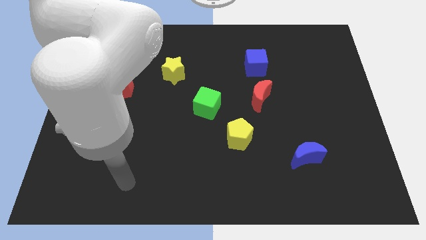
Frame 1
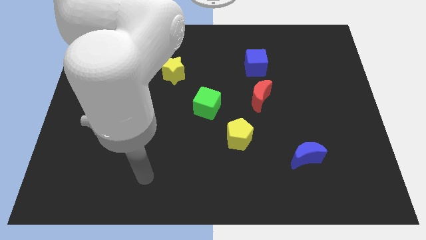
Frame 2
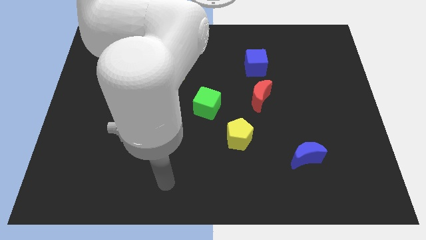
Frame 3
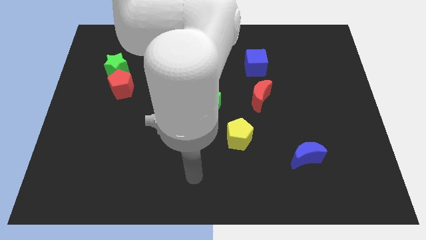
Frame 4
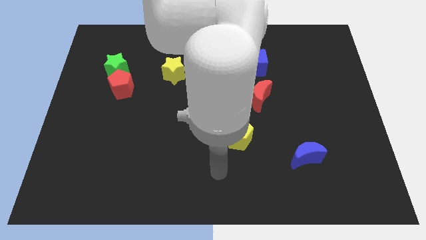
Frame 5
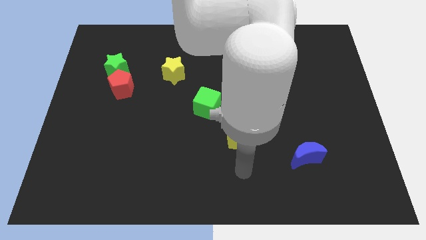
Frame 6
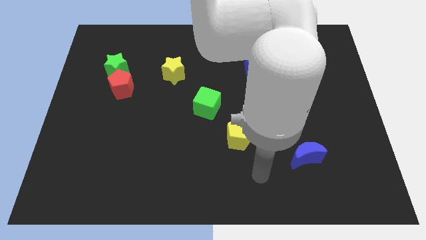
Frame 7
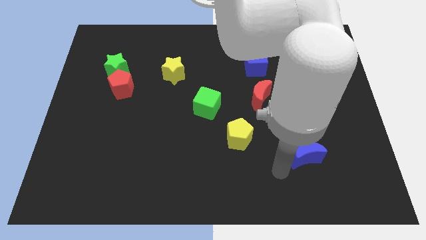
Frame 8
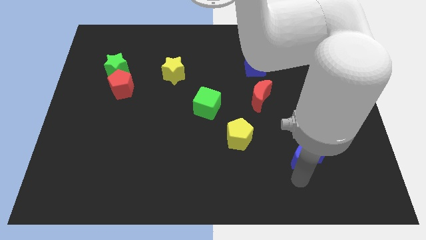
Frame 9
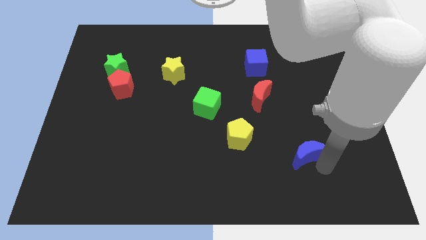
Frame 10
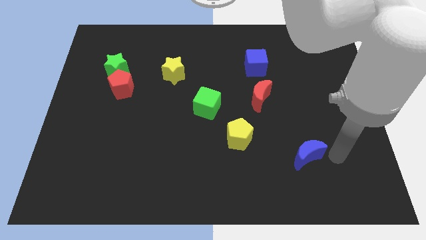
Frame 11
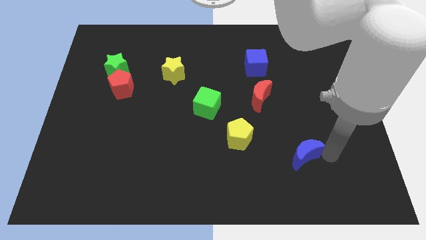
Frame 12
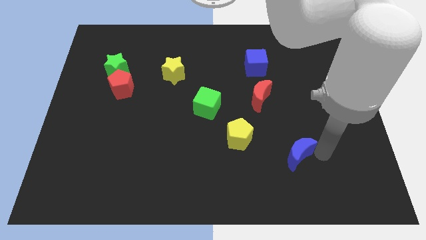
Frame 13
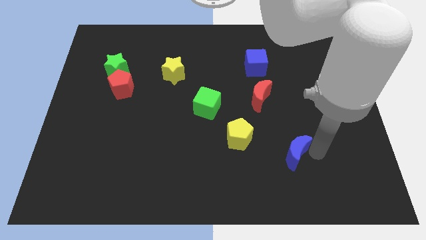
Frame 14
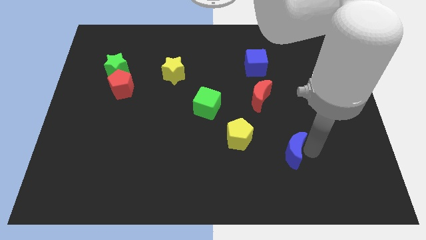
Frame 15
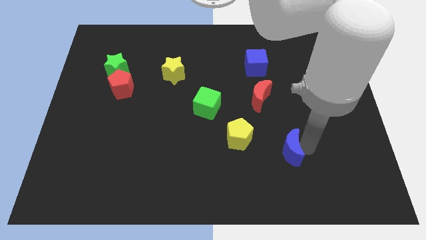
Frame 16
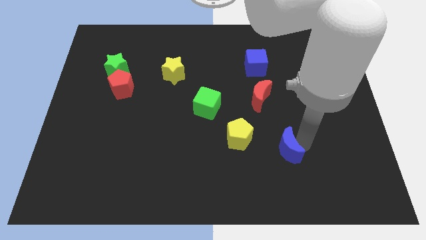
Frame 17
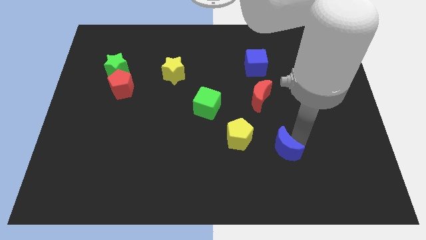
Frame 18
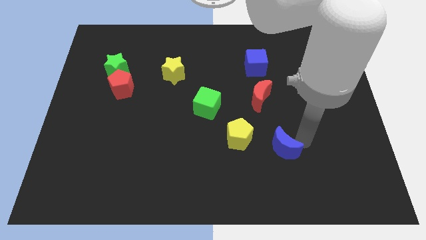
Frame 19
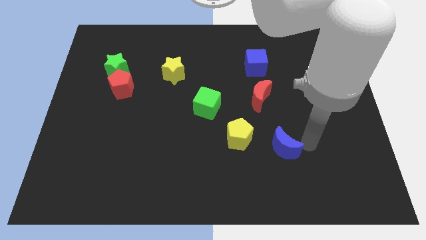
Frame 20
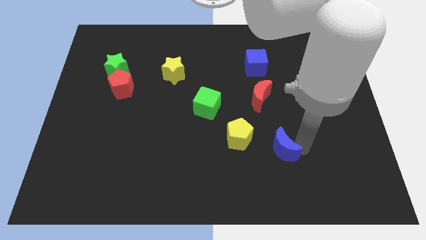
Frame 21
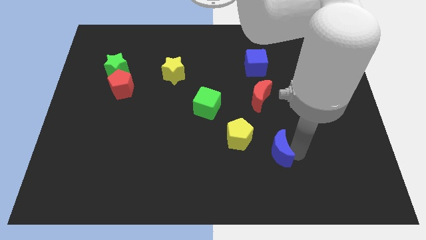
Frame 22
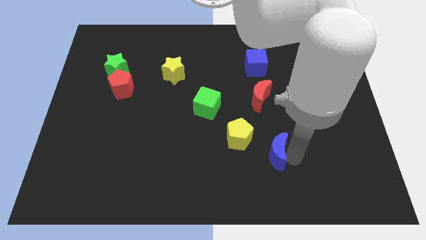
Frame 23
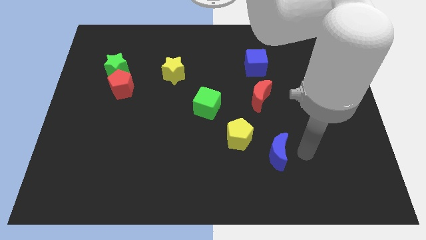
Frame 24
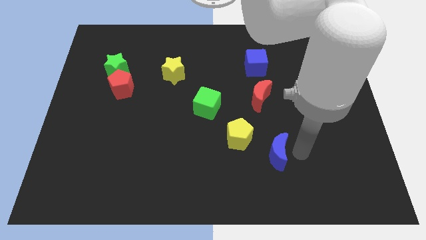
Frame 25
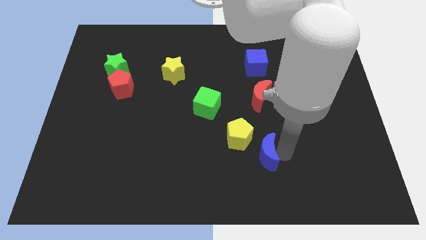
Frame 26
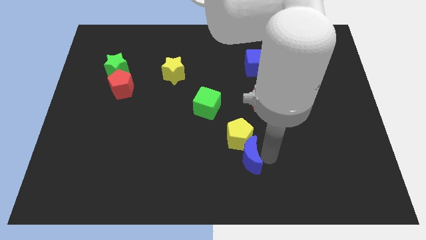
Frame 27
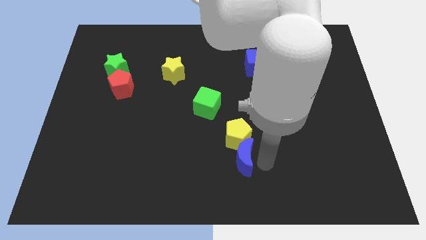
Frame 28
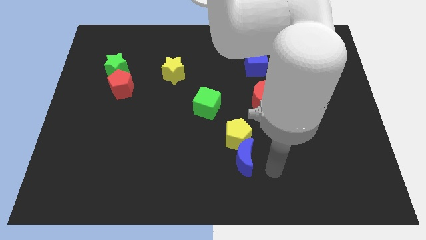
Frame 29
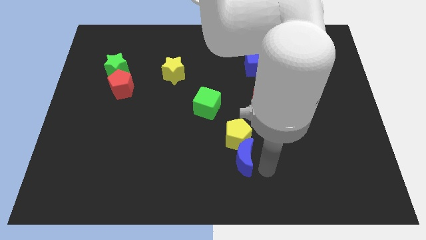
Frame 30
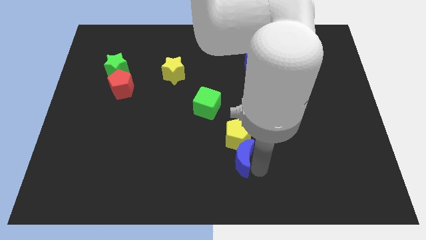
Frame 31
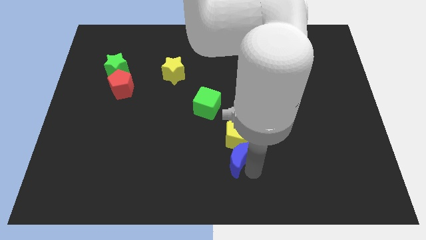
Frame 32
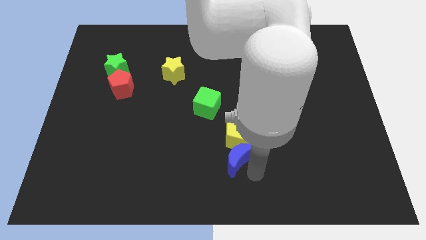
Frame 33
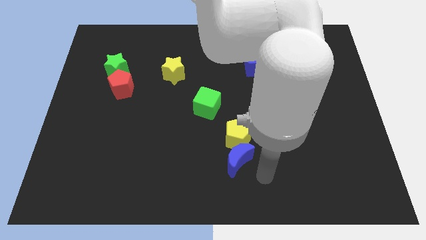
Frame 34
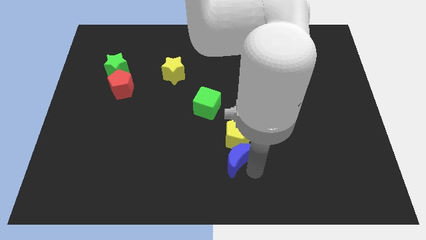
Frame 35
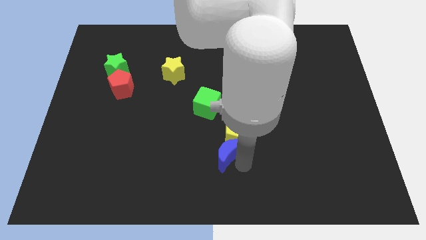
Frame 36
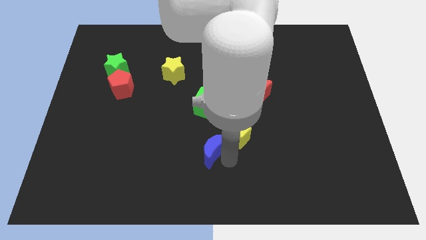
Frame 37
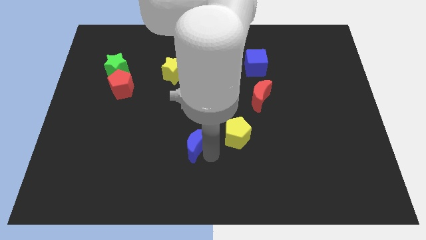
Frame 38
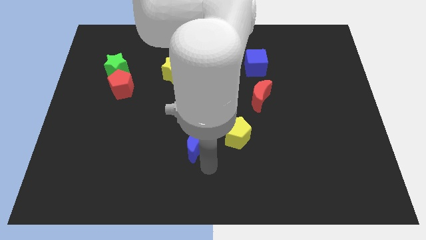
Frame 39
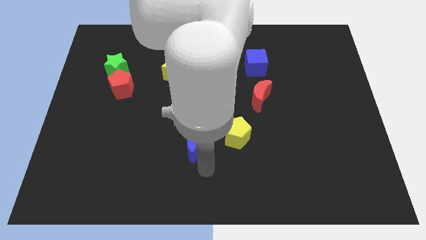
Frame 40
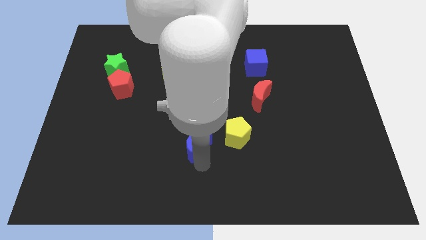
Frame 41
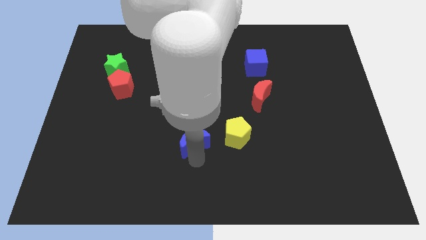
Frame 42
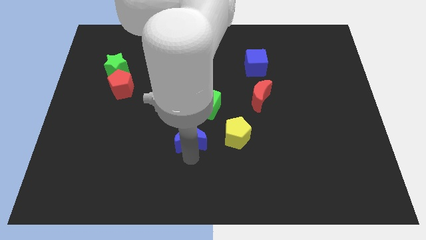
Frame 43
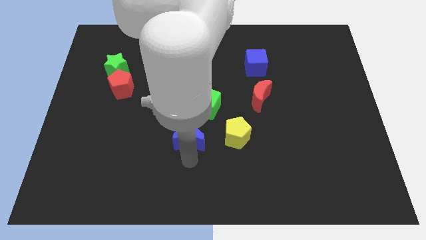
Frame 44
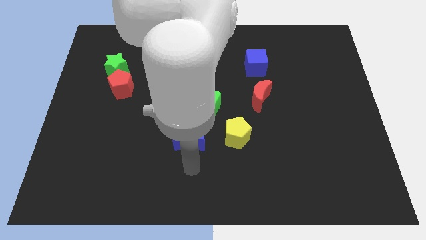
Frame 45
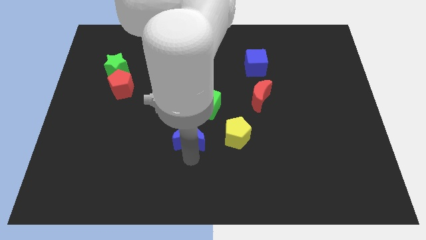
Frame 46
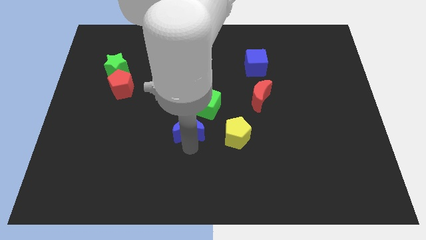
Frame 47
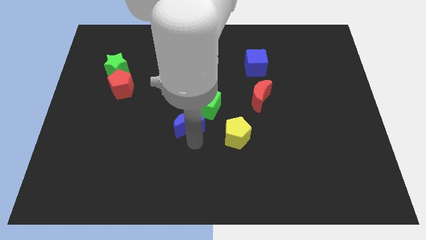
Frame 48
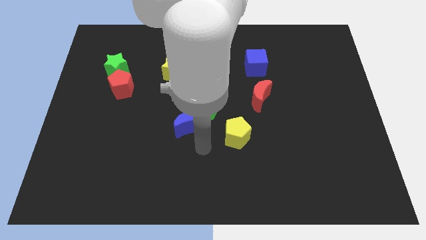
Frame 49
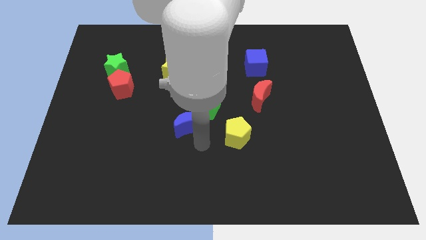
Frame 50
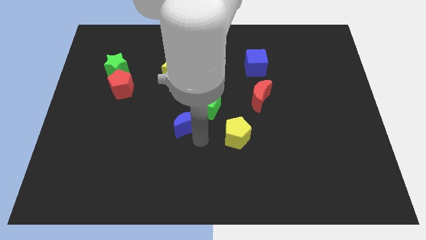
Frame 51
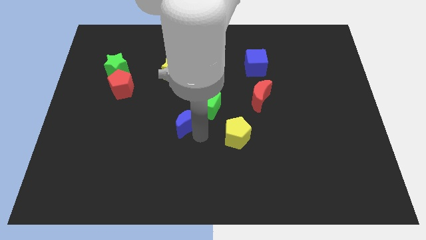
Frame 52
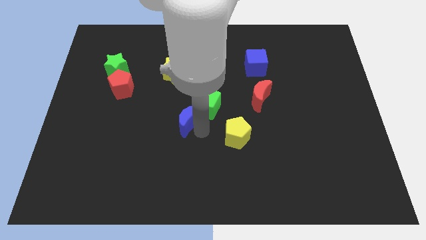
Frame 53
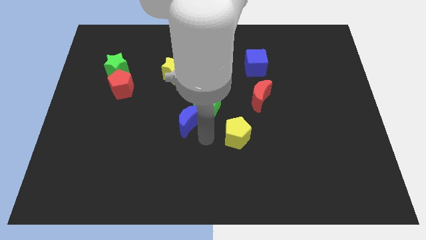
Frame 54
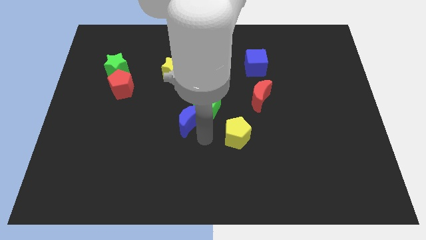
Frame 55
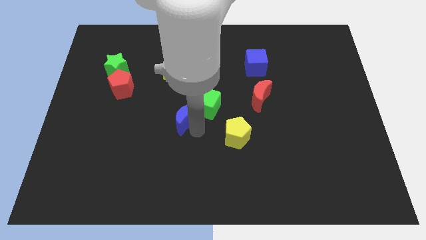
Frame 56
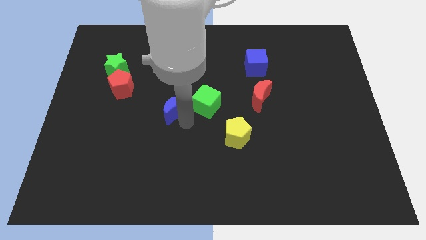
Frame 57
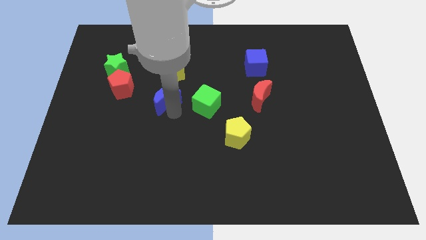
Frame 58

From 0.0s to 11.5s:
push the blue moon right of the red pentagon

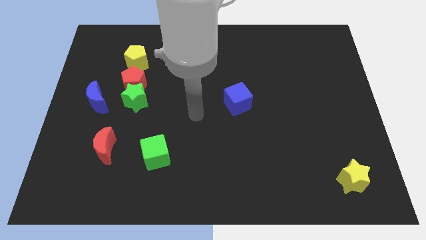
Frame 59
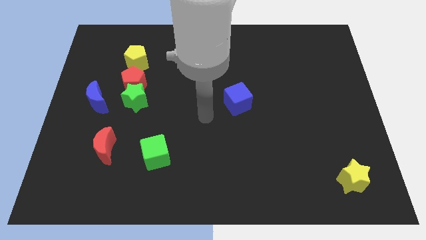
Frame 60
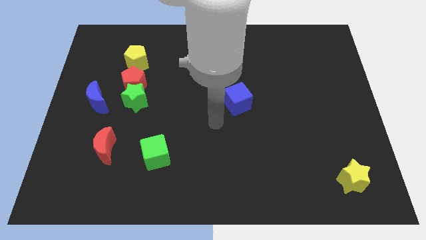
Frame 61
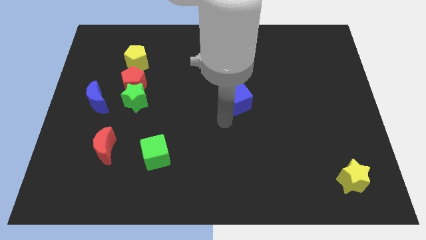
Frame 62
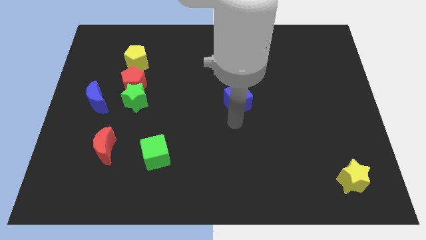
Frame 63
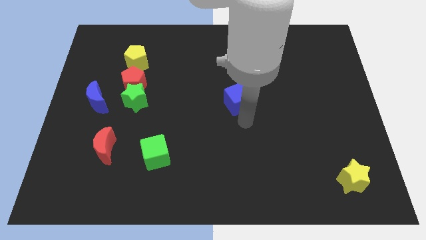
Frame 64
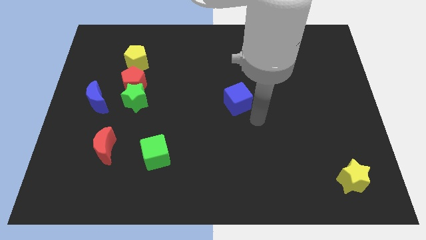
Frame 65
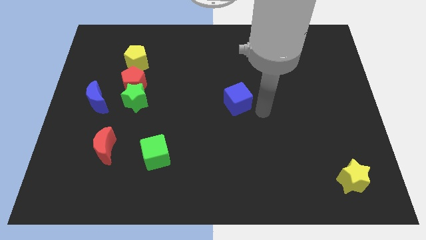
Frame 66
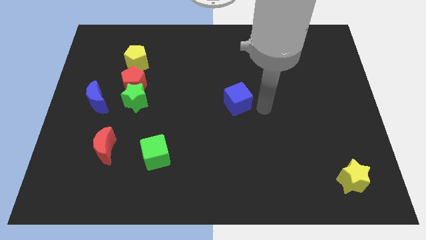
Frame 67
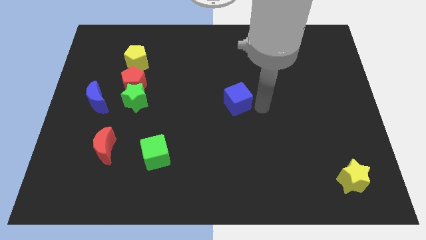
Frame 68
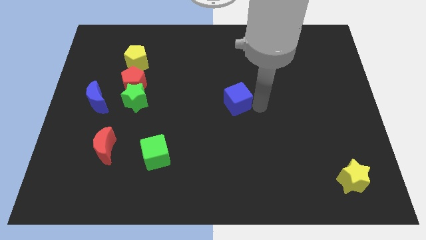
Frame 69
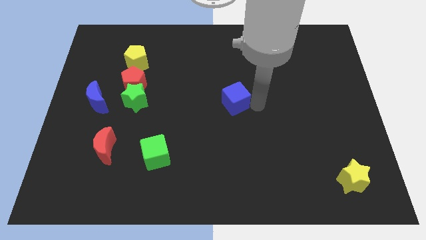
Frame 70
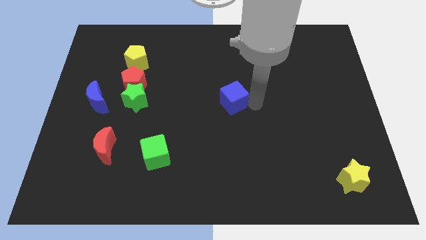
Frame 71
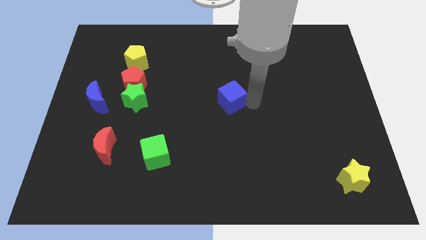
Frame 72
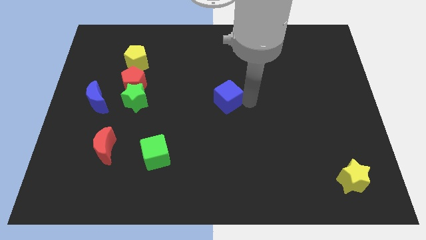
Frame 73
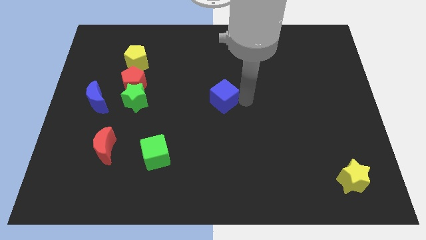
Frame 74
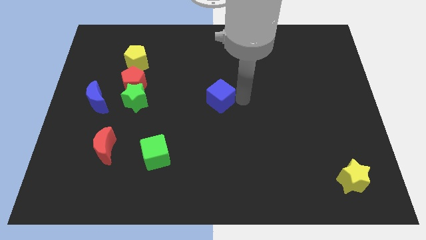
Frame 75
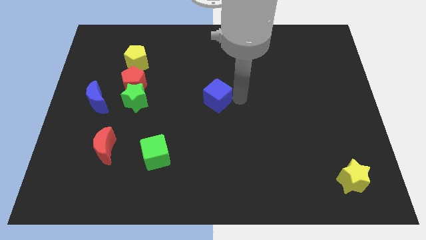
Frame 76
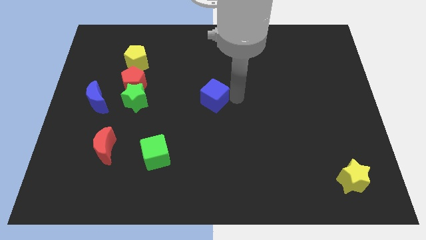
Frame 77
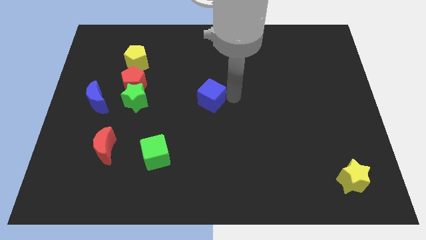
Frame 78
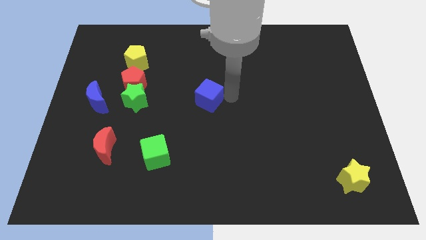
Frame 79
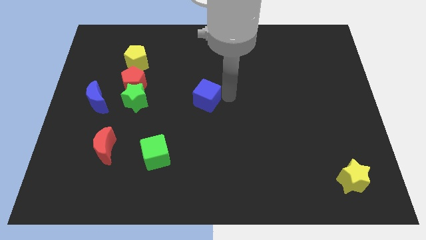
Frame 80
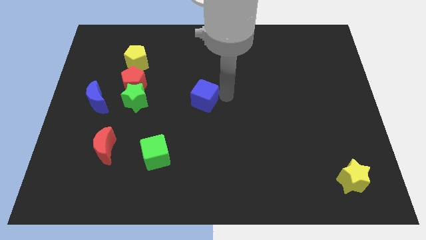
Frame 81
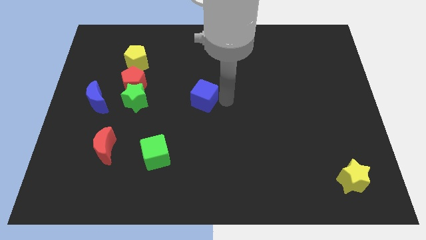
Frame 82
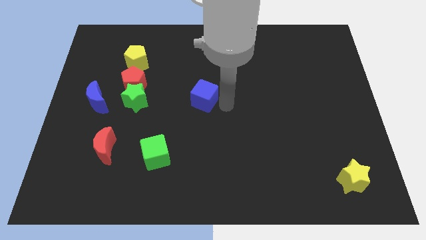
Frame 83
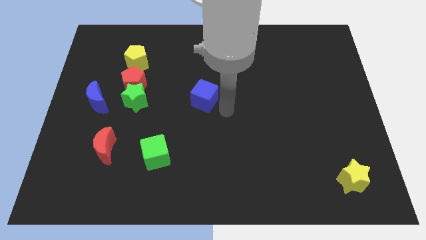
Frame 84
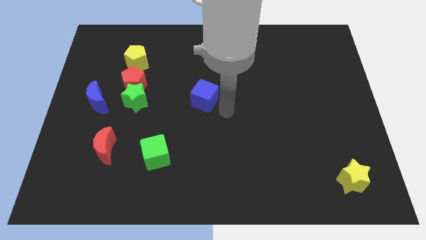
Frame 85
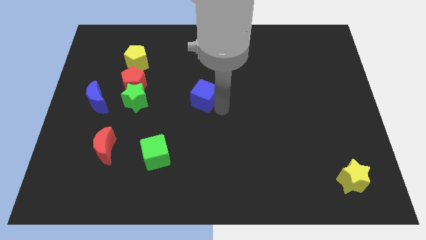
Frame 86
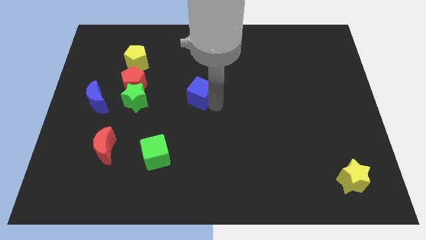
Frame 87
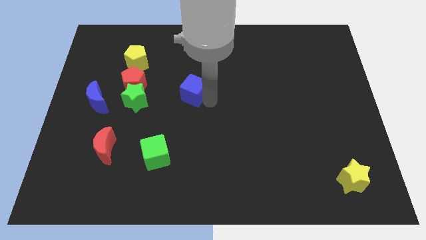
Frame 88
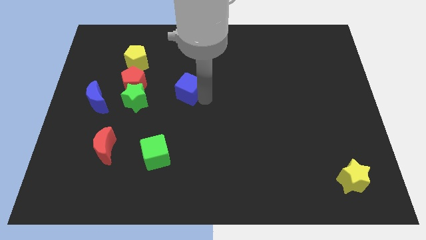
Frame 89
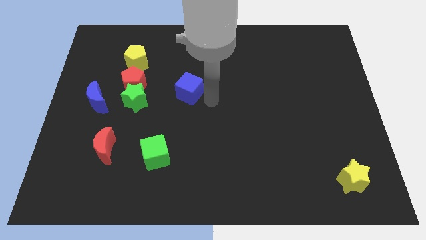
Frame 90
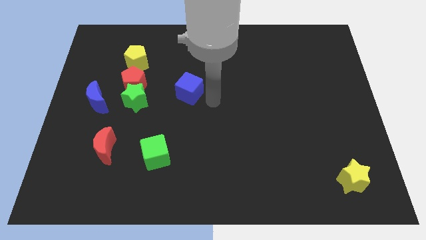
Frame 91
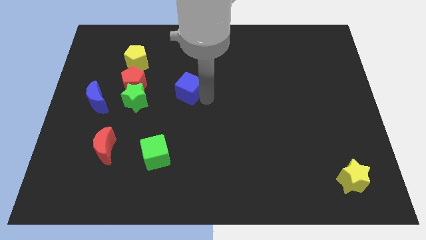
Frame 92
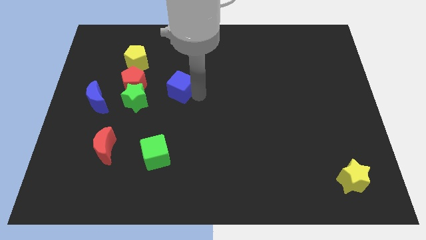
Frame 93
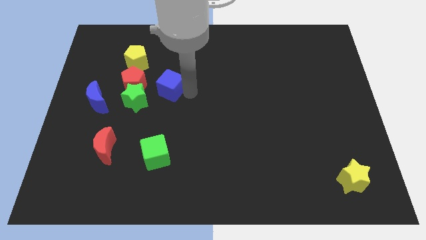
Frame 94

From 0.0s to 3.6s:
push the blue cube diagonally down and to the right of the yellow pentagon
